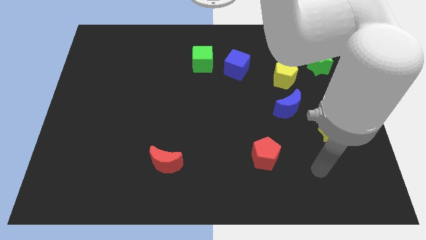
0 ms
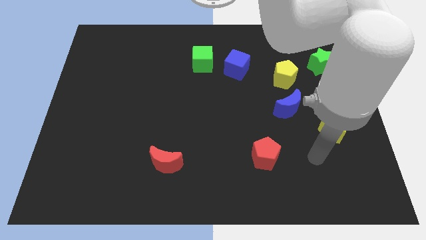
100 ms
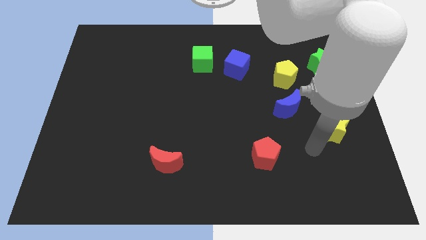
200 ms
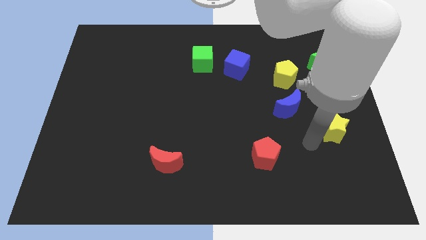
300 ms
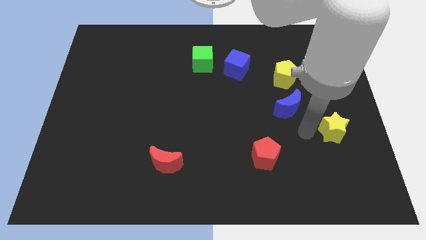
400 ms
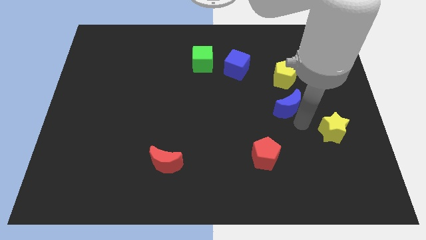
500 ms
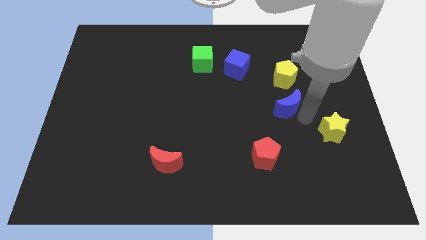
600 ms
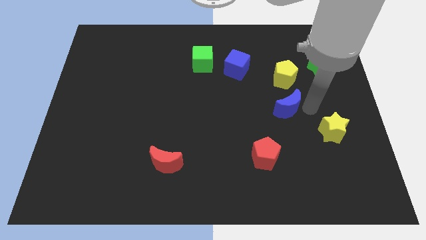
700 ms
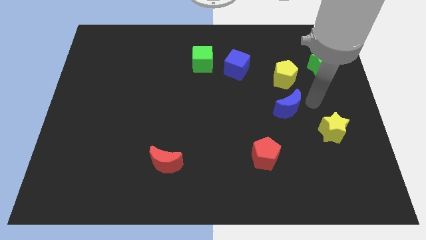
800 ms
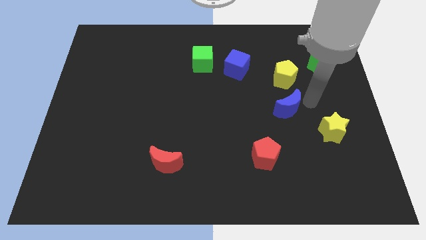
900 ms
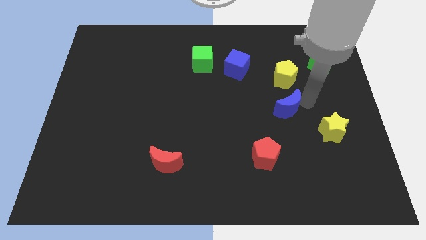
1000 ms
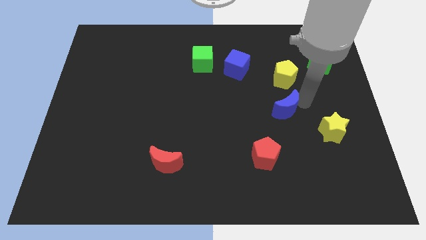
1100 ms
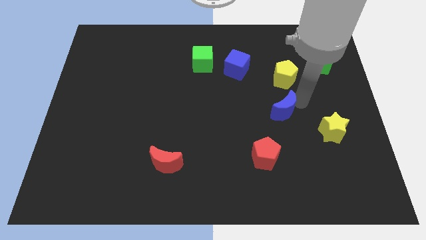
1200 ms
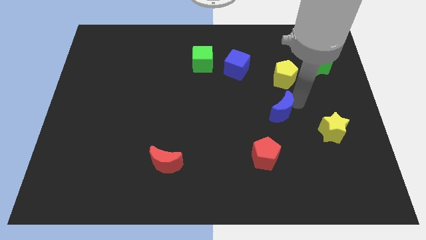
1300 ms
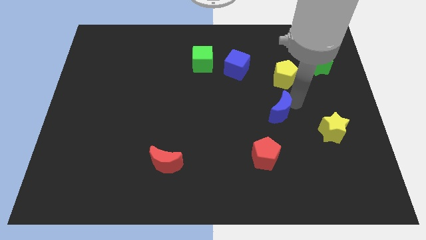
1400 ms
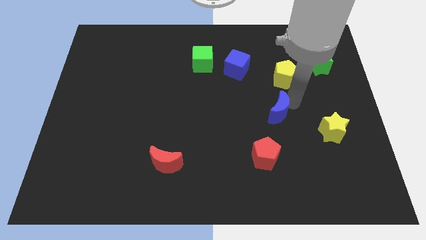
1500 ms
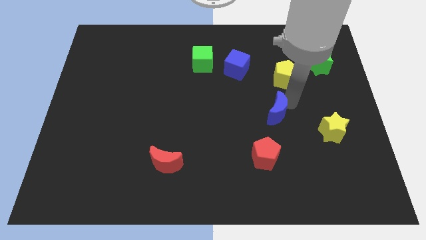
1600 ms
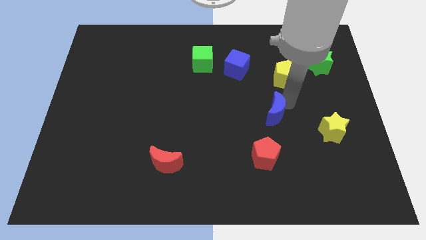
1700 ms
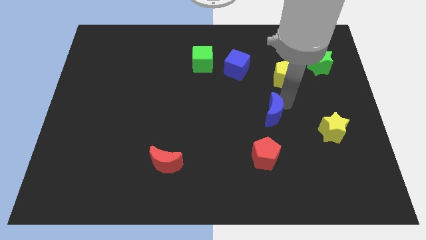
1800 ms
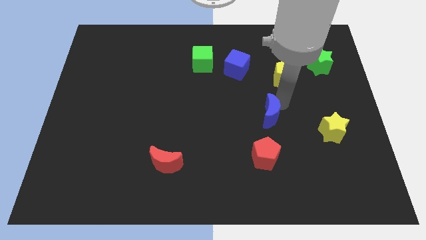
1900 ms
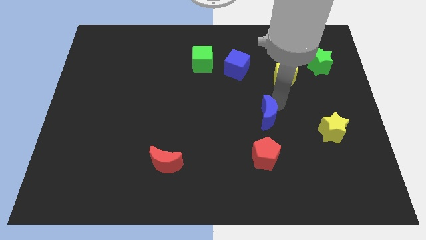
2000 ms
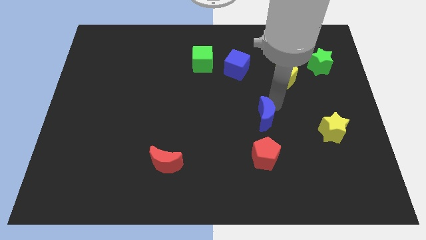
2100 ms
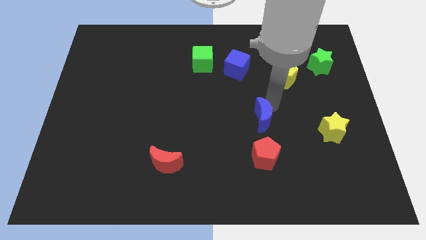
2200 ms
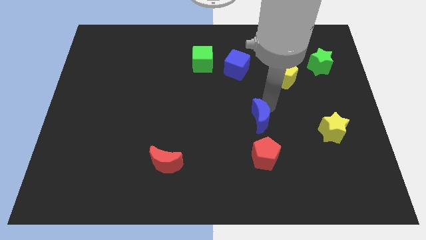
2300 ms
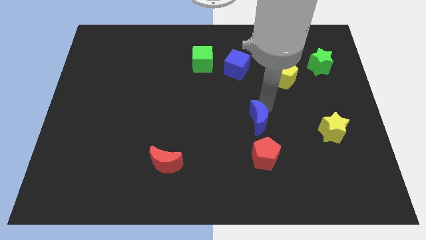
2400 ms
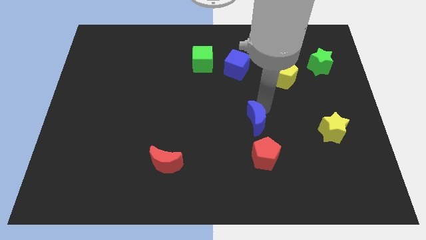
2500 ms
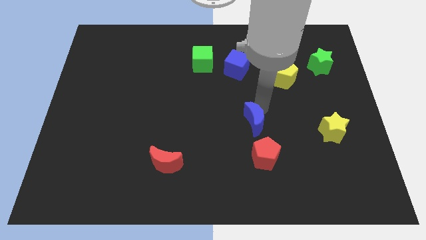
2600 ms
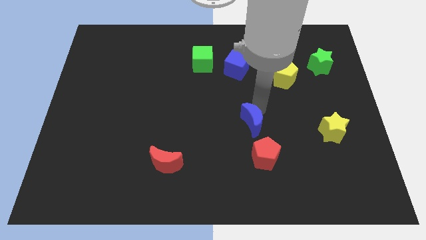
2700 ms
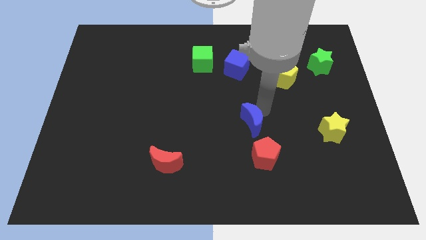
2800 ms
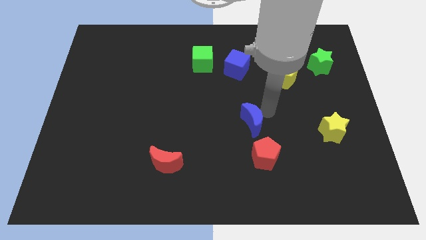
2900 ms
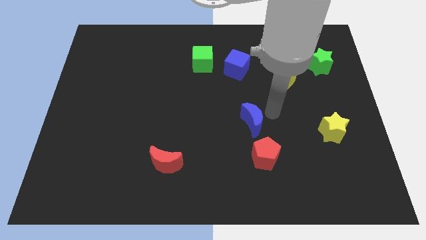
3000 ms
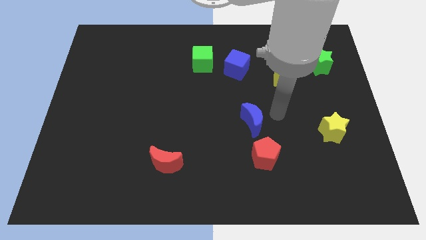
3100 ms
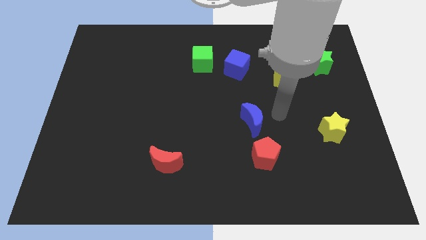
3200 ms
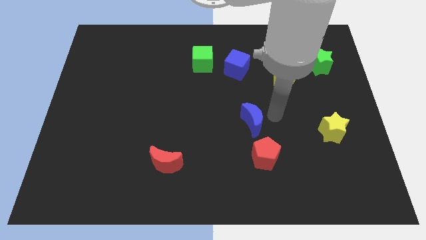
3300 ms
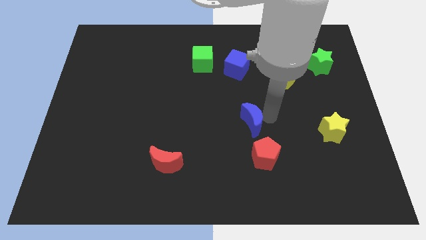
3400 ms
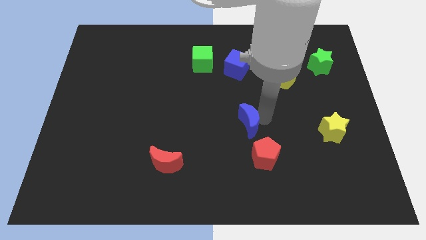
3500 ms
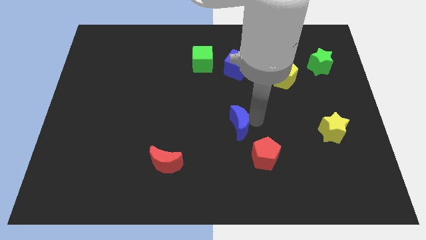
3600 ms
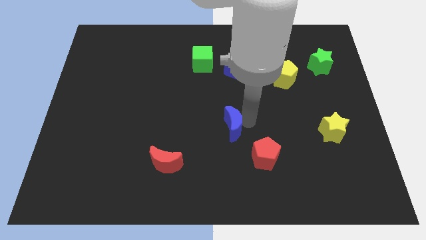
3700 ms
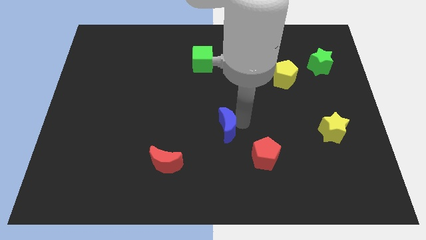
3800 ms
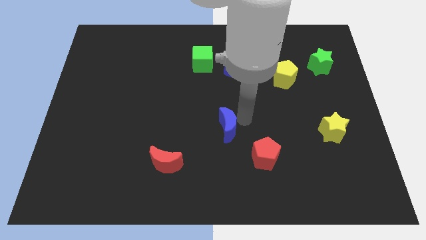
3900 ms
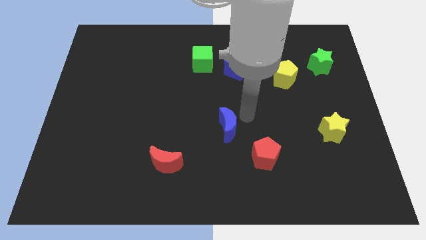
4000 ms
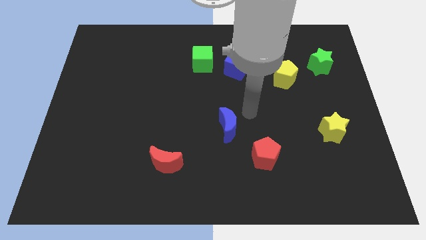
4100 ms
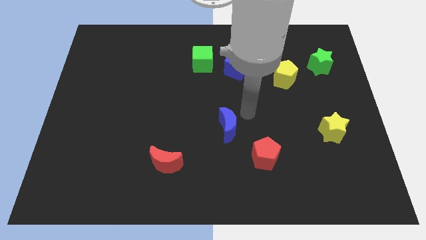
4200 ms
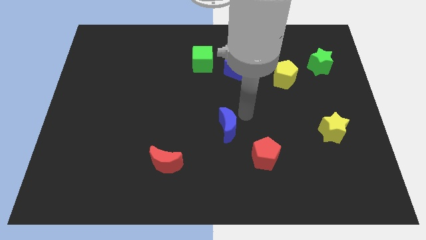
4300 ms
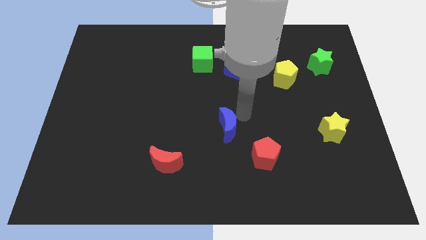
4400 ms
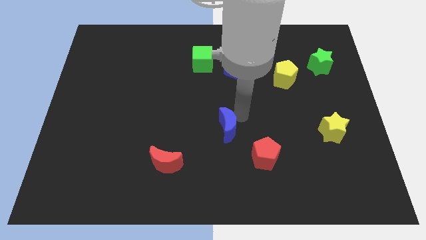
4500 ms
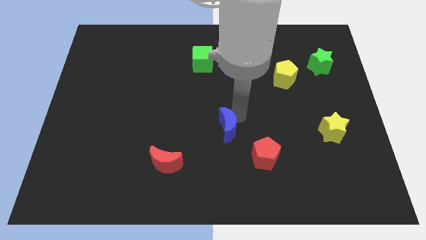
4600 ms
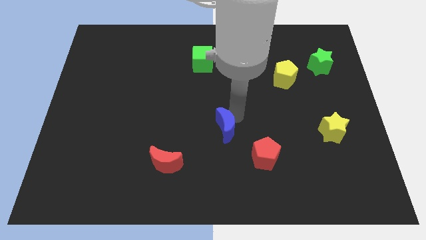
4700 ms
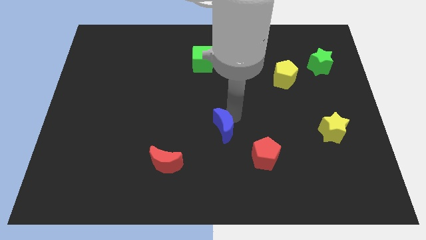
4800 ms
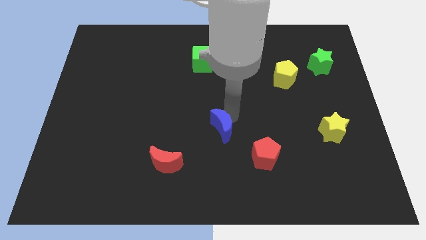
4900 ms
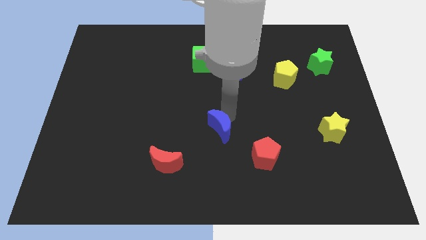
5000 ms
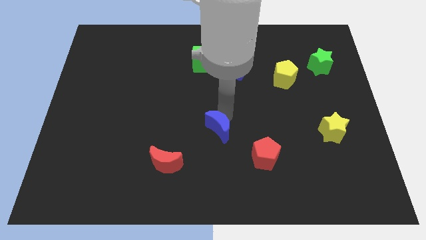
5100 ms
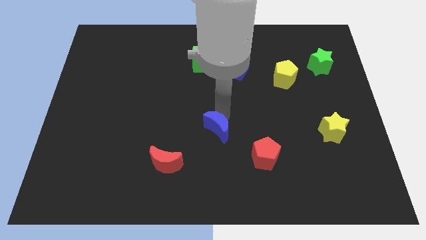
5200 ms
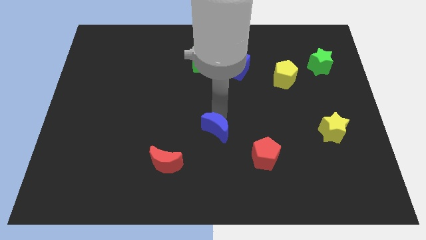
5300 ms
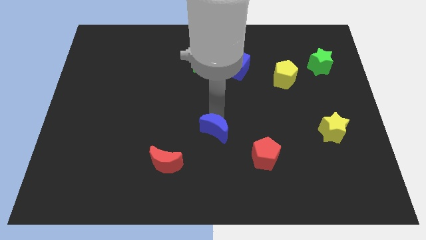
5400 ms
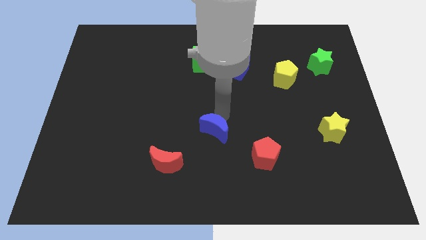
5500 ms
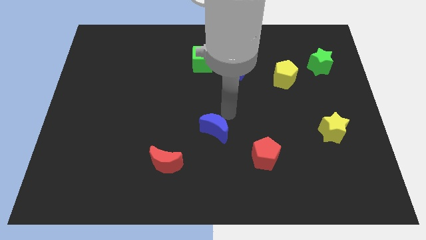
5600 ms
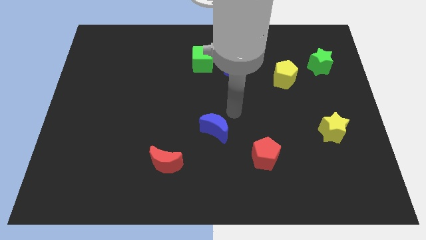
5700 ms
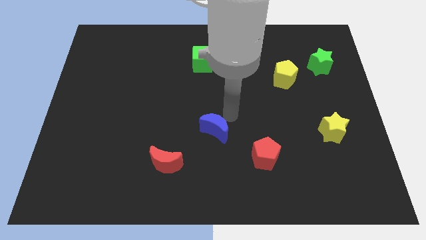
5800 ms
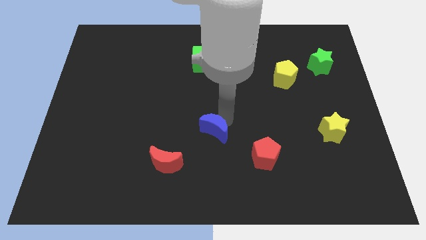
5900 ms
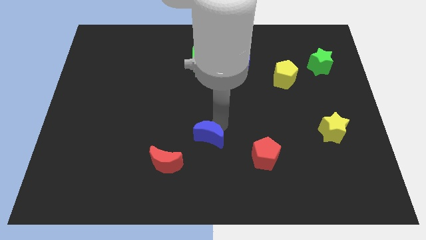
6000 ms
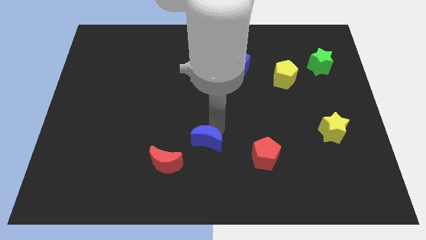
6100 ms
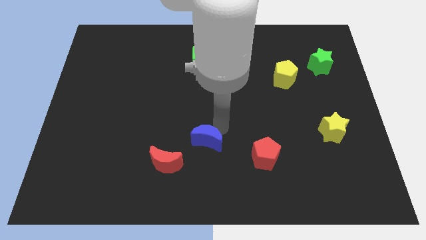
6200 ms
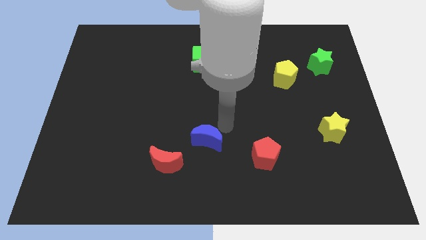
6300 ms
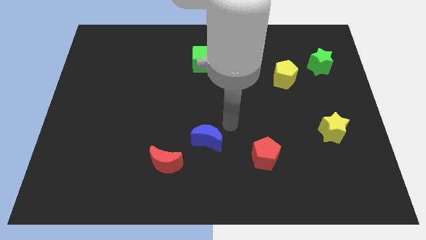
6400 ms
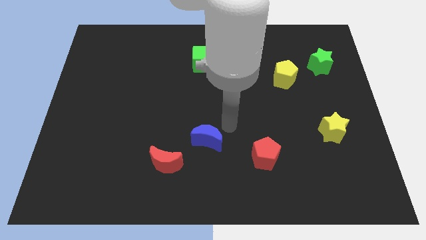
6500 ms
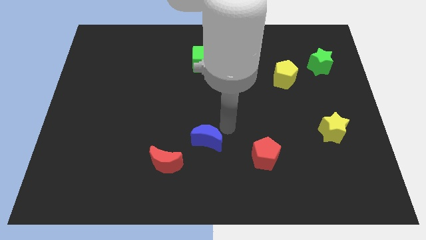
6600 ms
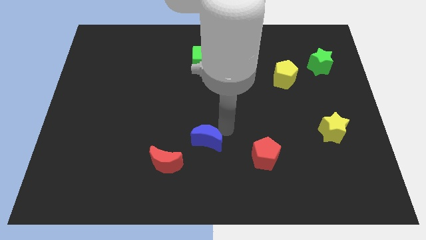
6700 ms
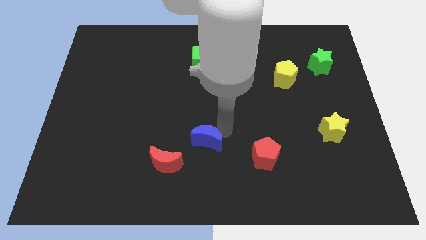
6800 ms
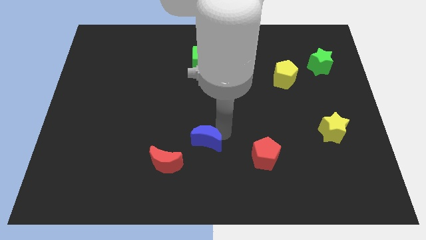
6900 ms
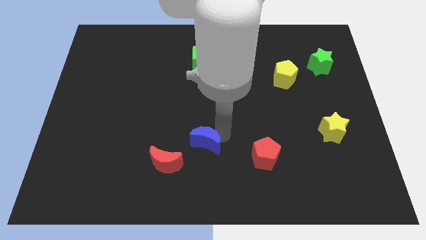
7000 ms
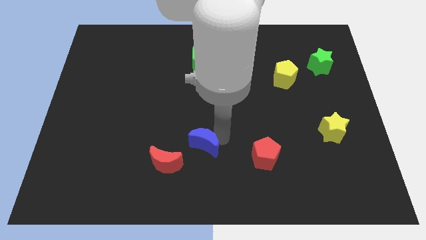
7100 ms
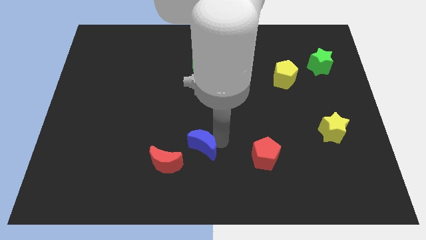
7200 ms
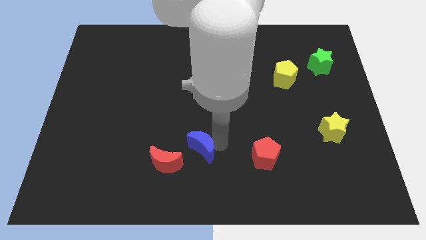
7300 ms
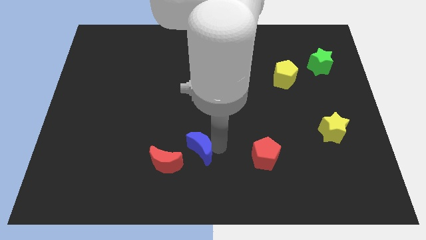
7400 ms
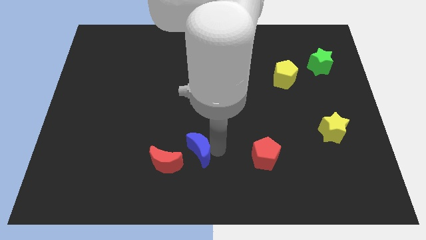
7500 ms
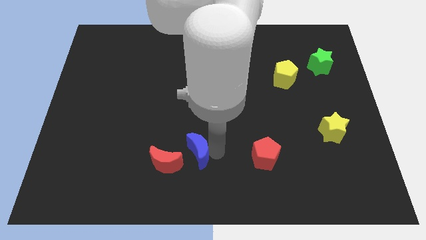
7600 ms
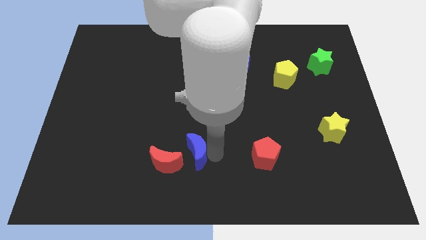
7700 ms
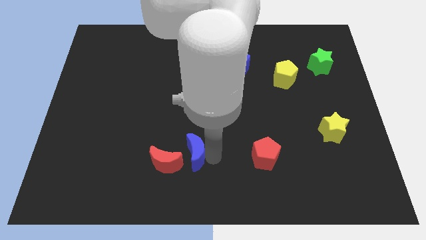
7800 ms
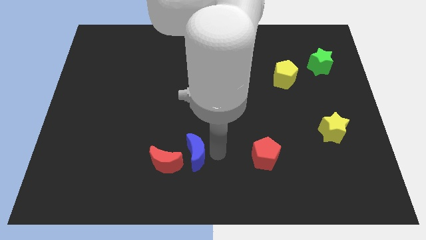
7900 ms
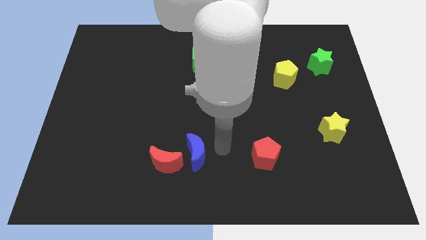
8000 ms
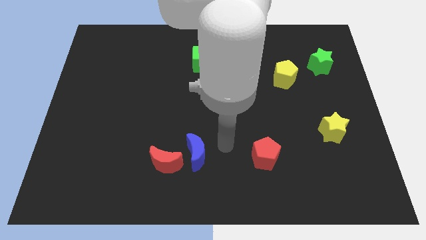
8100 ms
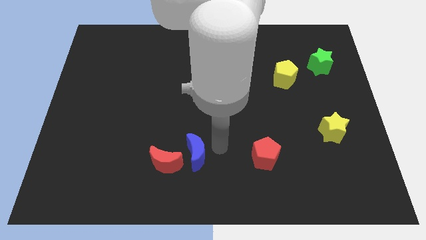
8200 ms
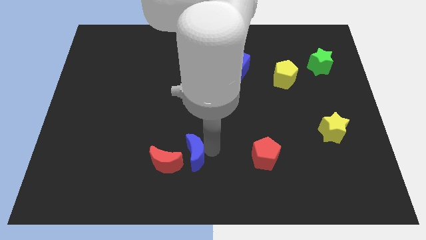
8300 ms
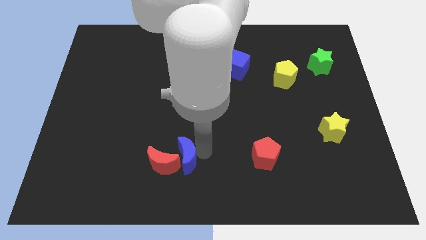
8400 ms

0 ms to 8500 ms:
put the blue moon towards the red moon
